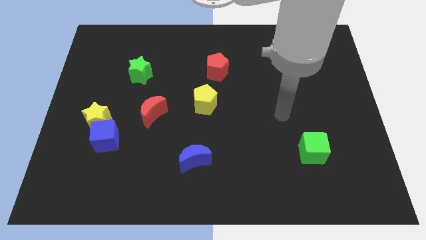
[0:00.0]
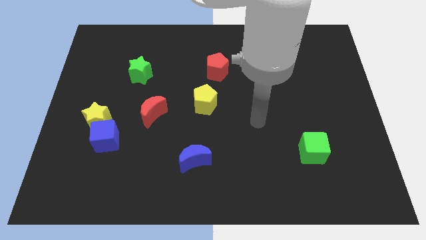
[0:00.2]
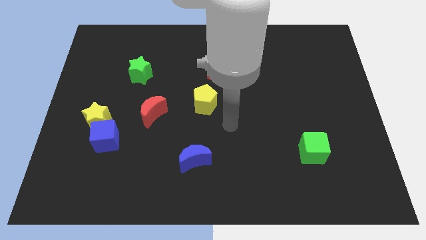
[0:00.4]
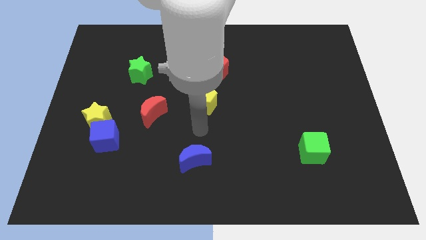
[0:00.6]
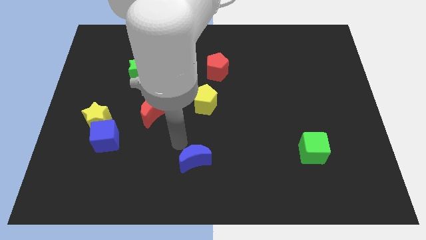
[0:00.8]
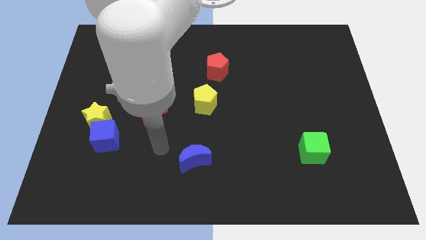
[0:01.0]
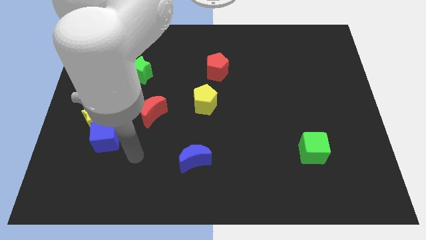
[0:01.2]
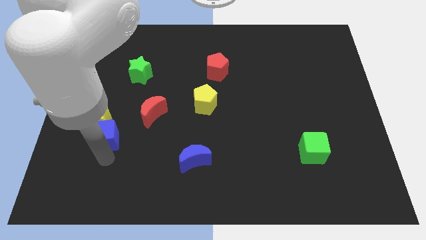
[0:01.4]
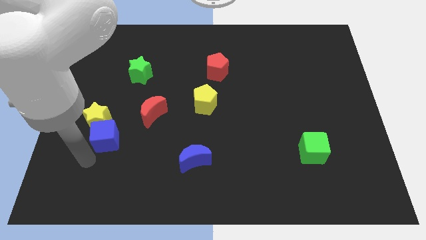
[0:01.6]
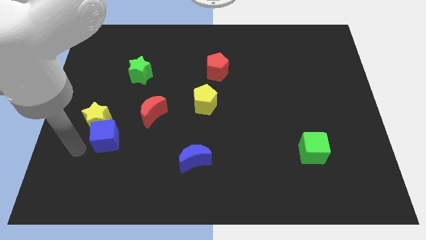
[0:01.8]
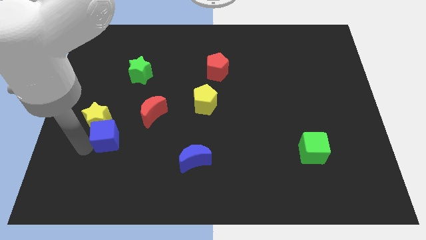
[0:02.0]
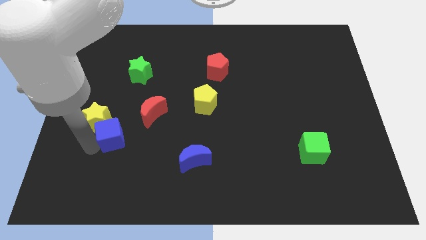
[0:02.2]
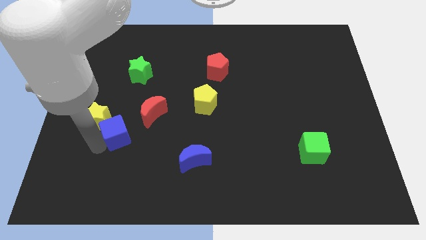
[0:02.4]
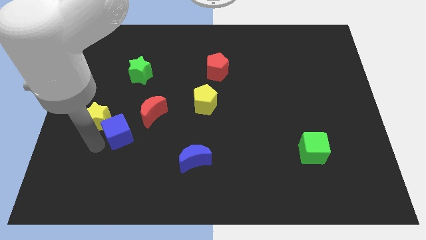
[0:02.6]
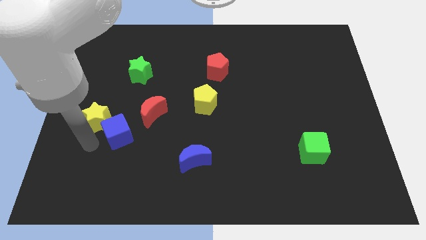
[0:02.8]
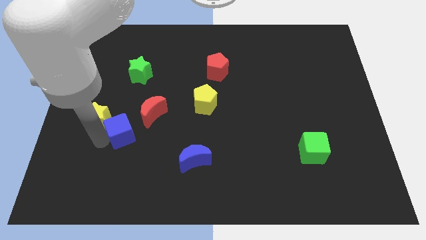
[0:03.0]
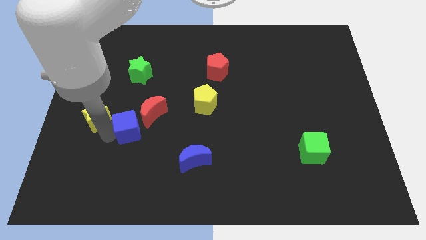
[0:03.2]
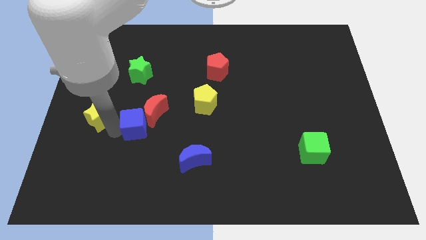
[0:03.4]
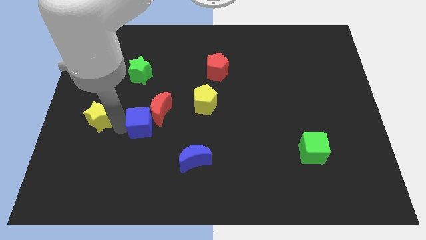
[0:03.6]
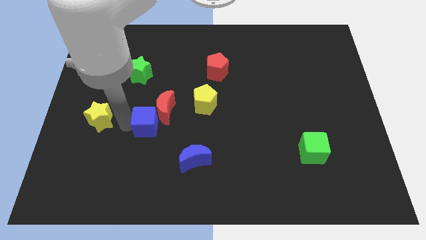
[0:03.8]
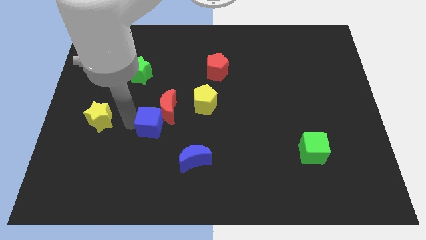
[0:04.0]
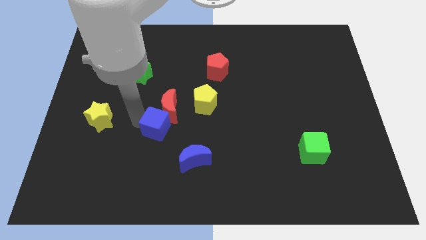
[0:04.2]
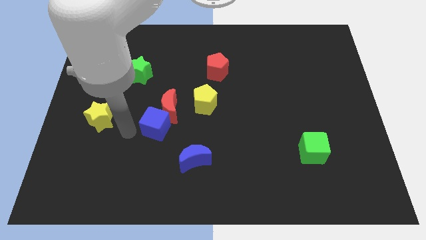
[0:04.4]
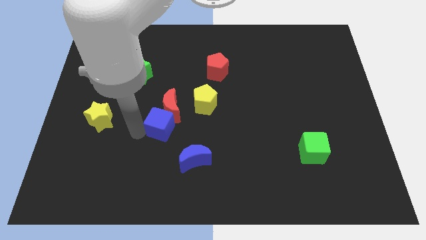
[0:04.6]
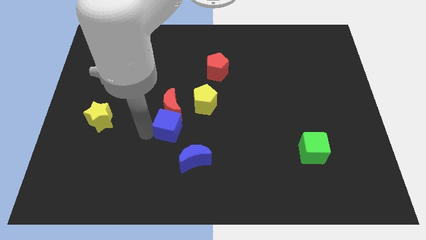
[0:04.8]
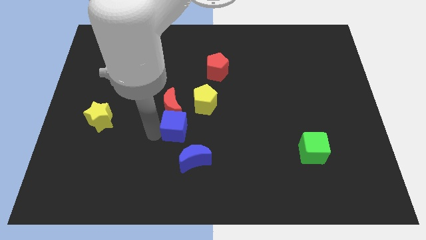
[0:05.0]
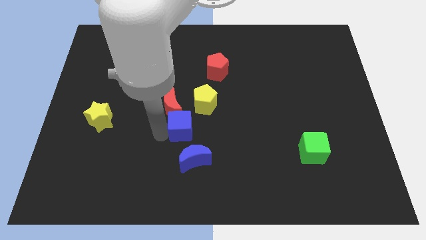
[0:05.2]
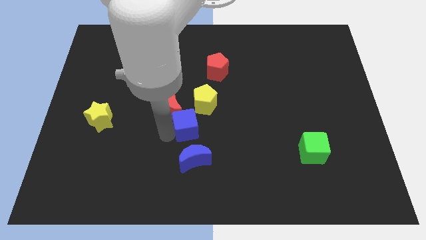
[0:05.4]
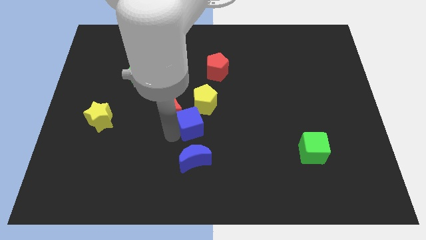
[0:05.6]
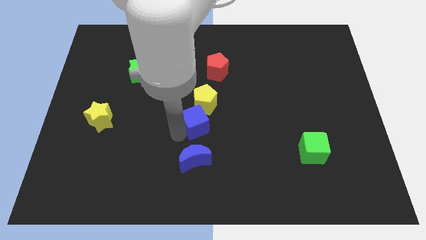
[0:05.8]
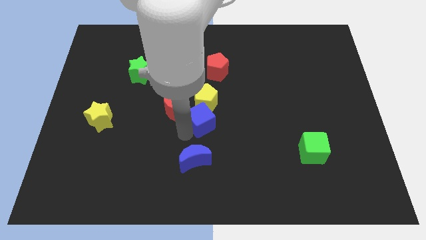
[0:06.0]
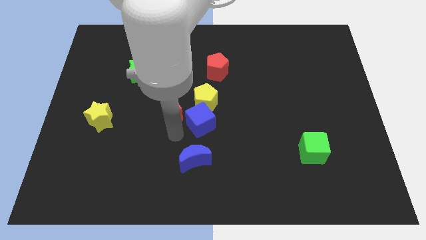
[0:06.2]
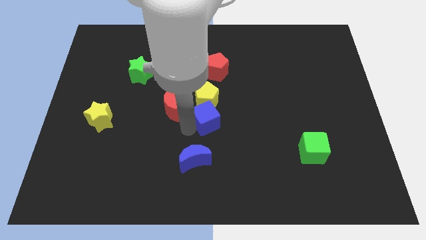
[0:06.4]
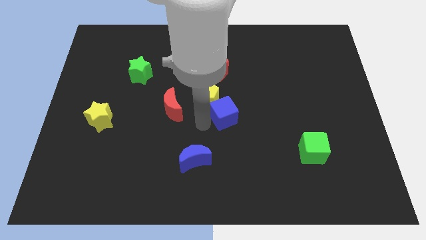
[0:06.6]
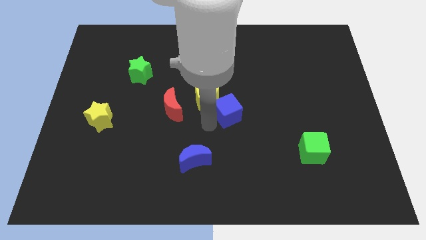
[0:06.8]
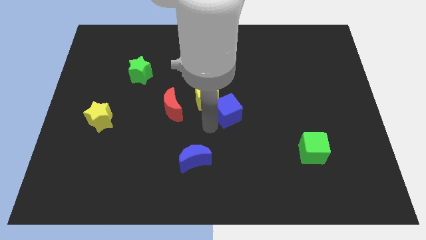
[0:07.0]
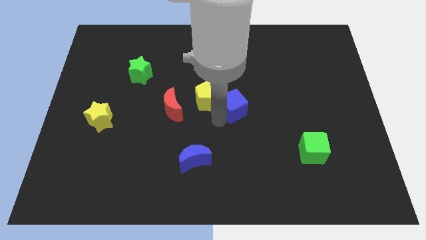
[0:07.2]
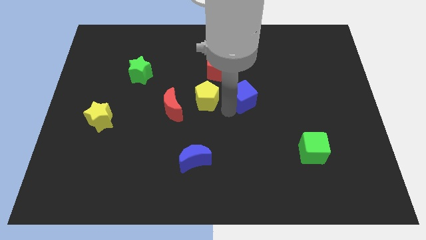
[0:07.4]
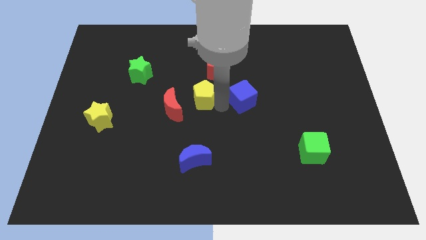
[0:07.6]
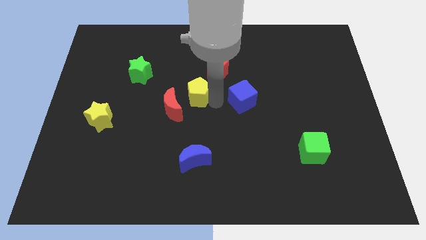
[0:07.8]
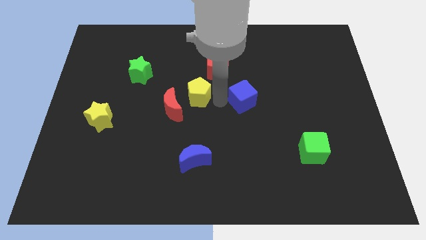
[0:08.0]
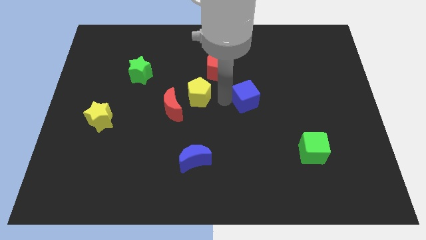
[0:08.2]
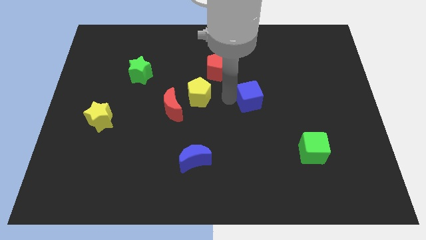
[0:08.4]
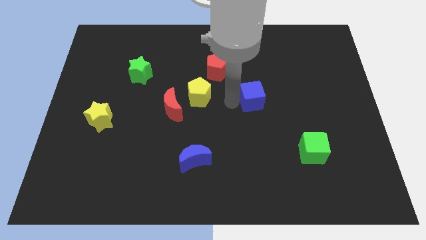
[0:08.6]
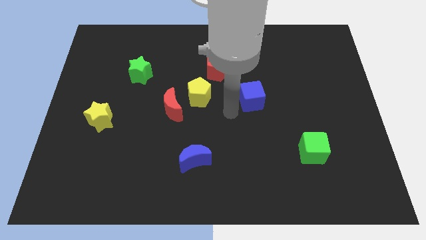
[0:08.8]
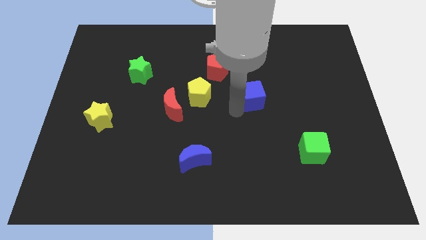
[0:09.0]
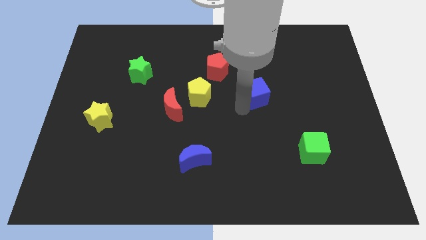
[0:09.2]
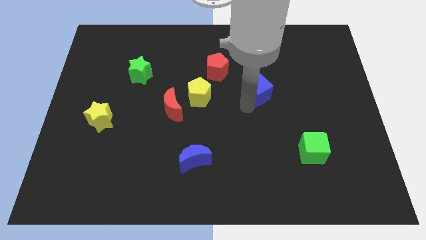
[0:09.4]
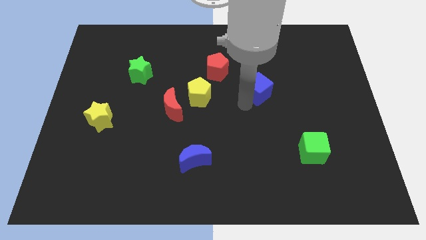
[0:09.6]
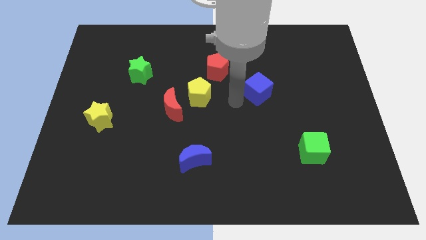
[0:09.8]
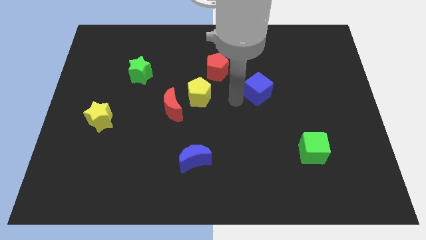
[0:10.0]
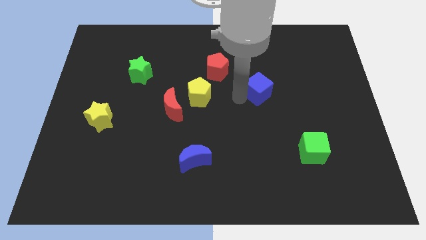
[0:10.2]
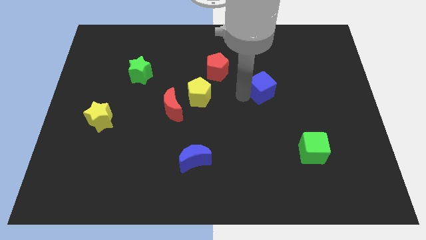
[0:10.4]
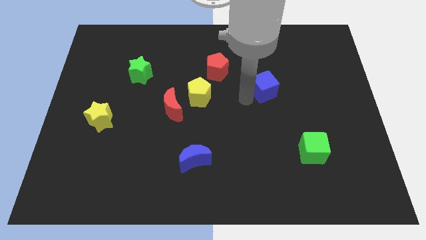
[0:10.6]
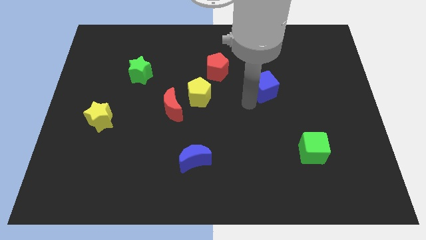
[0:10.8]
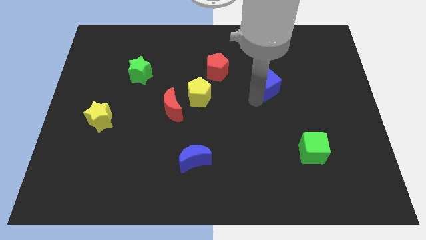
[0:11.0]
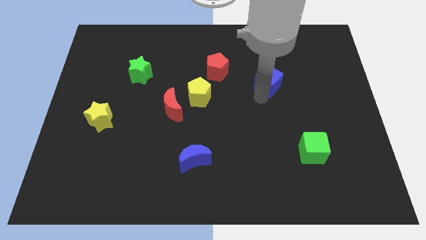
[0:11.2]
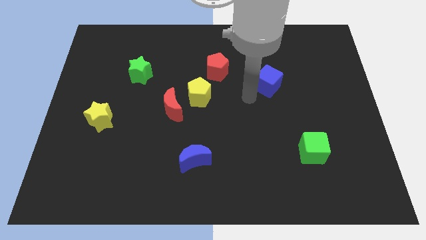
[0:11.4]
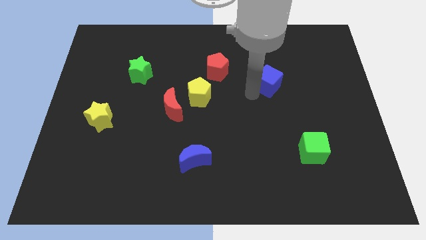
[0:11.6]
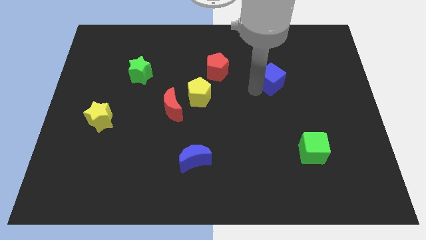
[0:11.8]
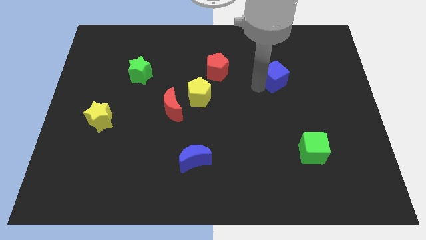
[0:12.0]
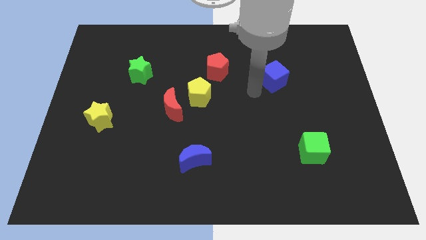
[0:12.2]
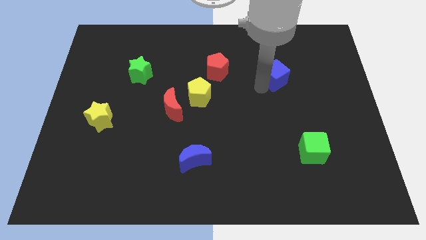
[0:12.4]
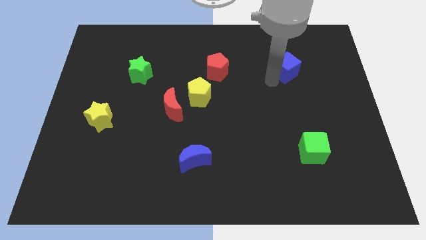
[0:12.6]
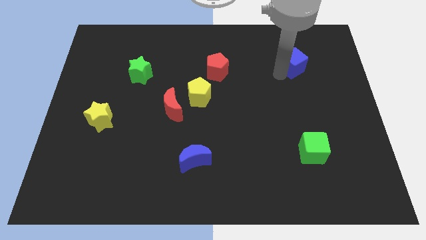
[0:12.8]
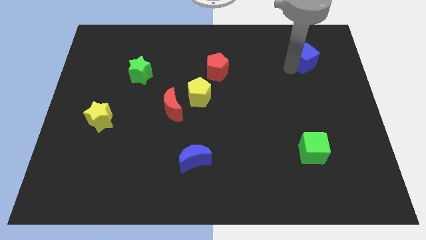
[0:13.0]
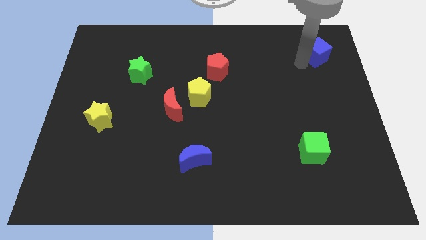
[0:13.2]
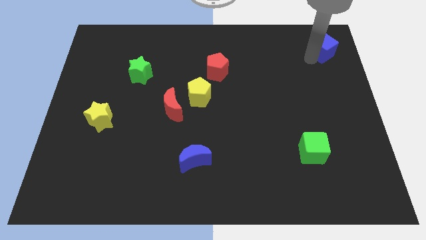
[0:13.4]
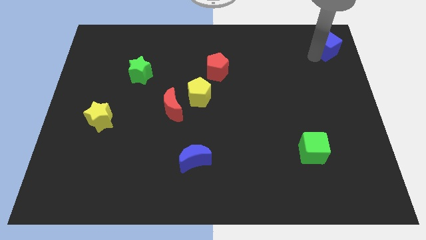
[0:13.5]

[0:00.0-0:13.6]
move the blue cube to the top right corner
